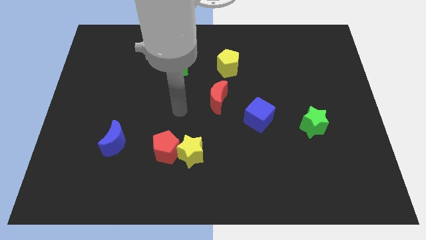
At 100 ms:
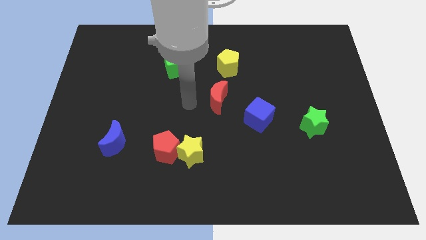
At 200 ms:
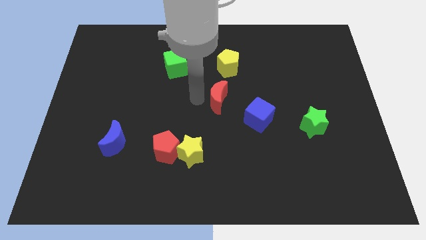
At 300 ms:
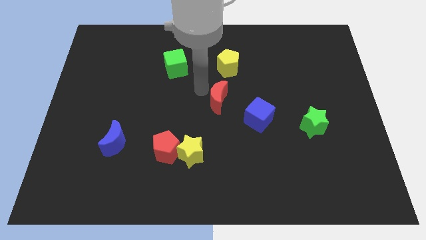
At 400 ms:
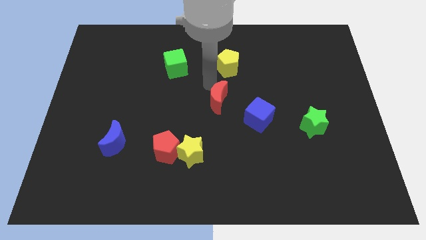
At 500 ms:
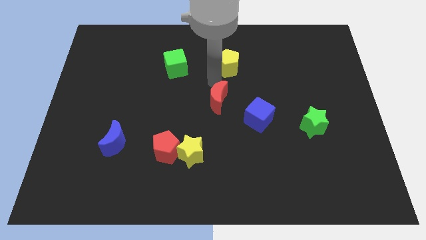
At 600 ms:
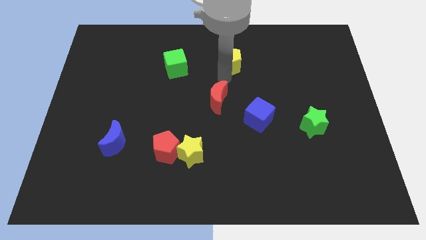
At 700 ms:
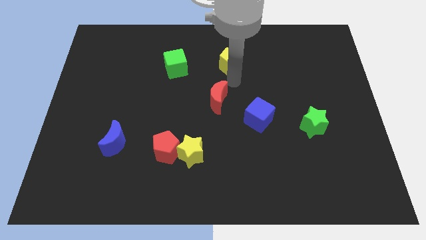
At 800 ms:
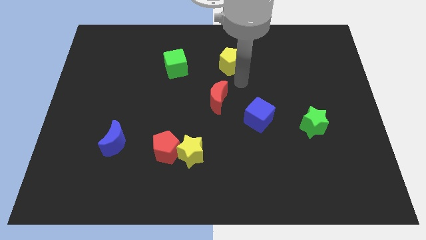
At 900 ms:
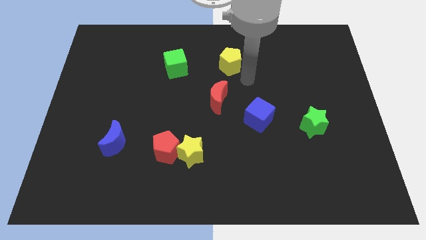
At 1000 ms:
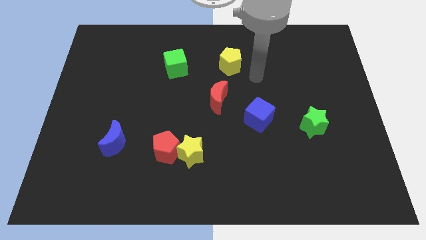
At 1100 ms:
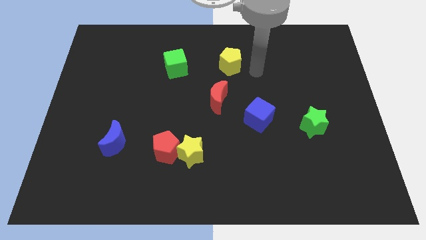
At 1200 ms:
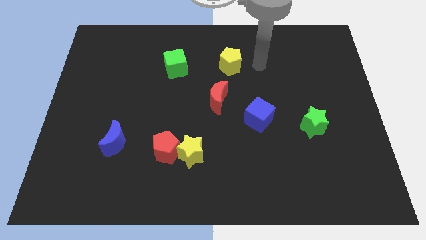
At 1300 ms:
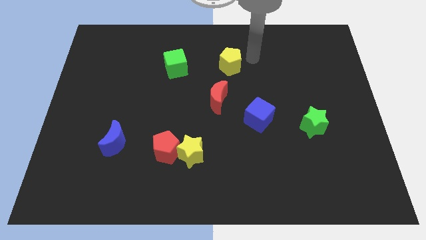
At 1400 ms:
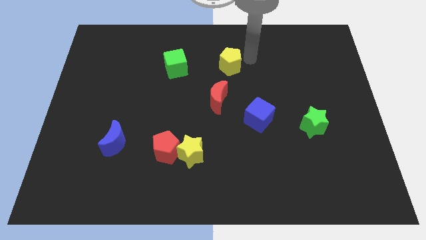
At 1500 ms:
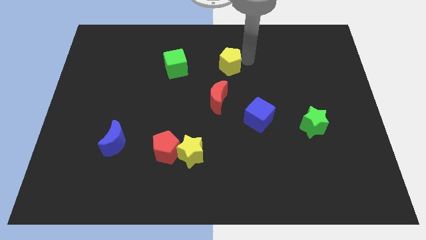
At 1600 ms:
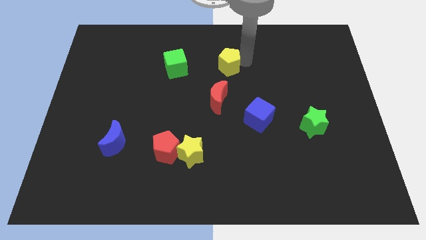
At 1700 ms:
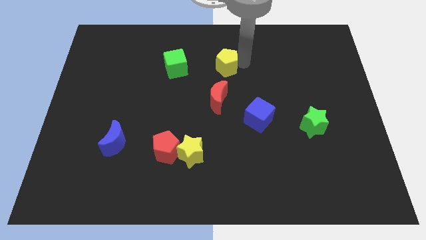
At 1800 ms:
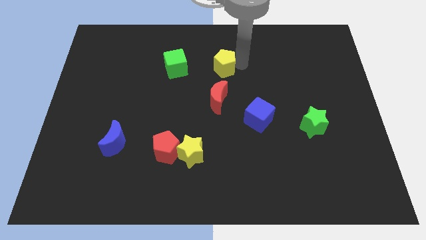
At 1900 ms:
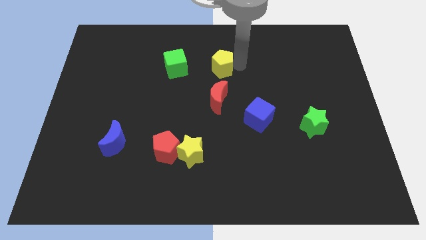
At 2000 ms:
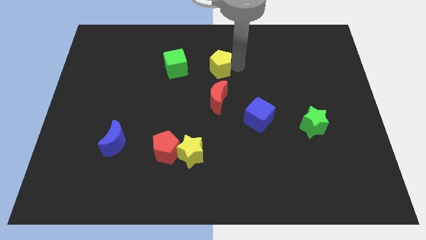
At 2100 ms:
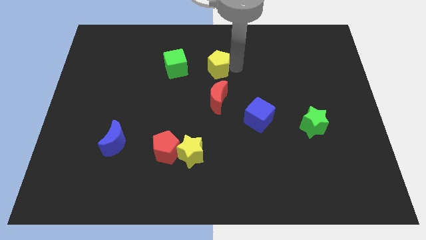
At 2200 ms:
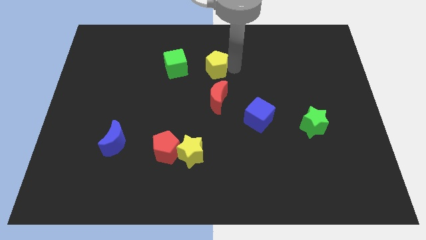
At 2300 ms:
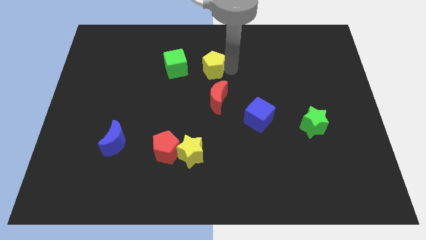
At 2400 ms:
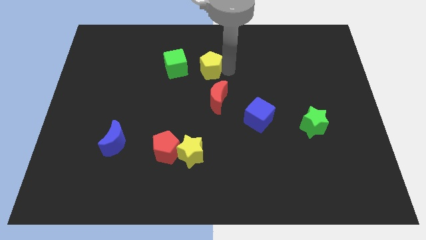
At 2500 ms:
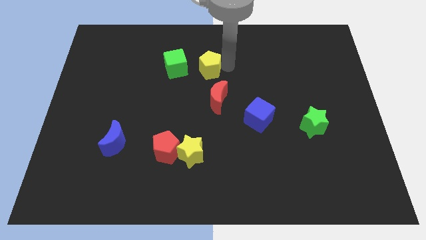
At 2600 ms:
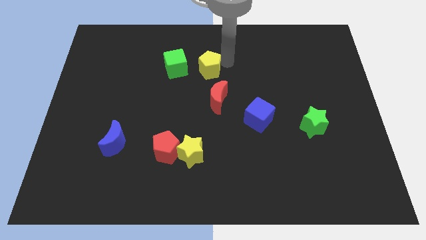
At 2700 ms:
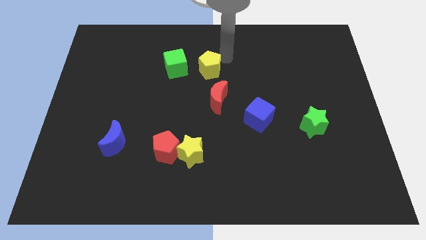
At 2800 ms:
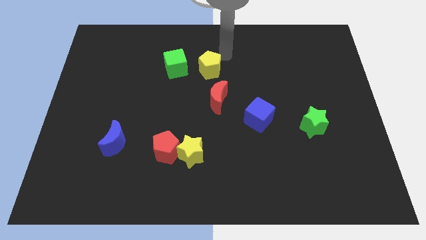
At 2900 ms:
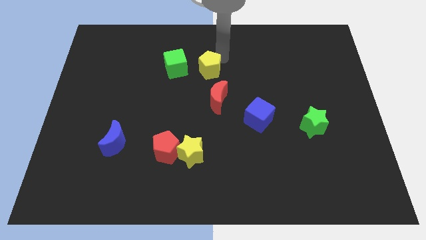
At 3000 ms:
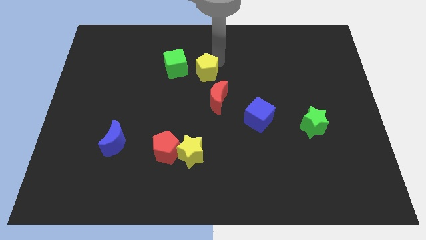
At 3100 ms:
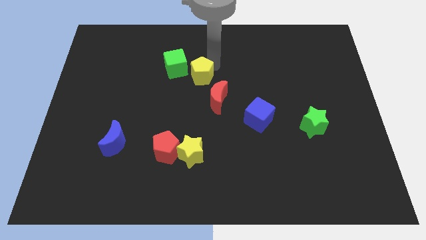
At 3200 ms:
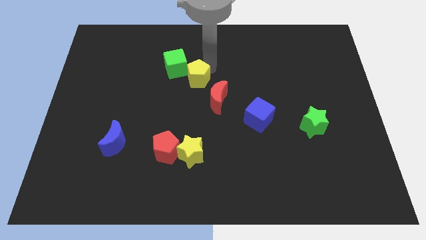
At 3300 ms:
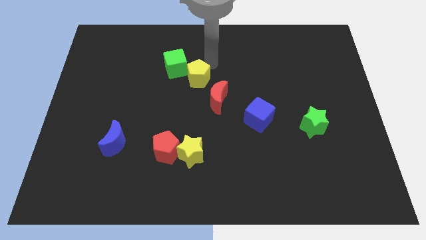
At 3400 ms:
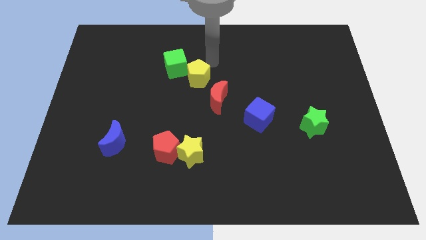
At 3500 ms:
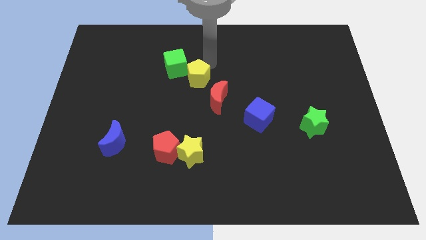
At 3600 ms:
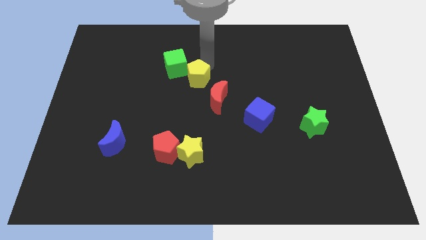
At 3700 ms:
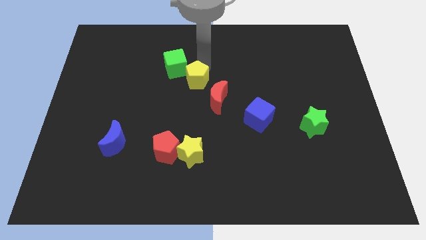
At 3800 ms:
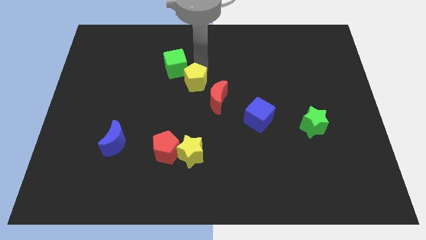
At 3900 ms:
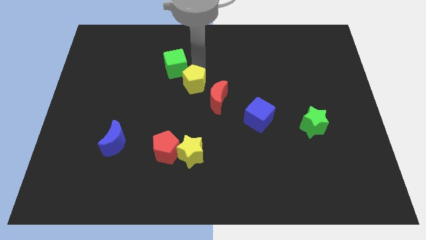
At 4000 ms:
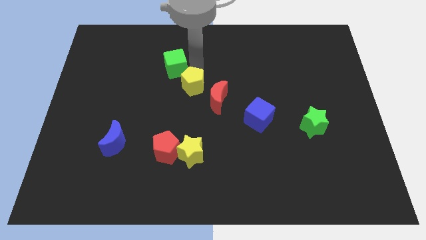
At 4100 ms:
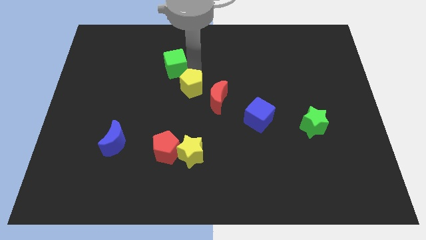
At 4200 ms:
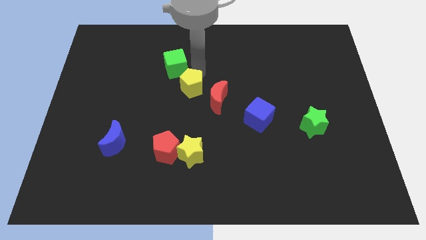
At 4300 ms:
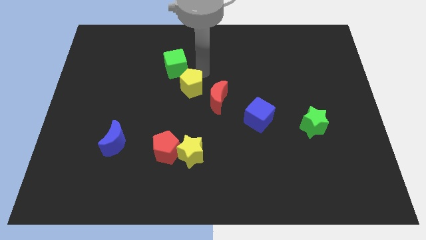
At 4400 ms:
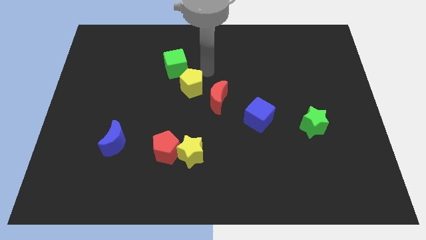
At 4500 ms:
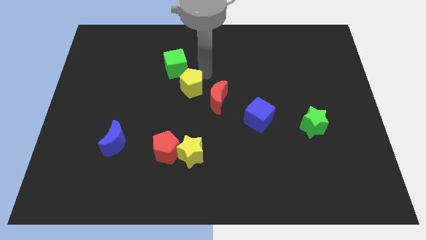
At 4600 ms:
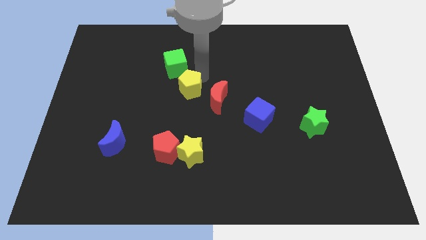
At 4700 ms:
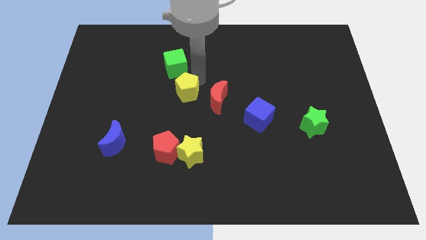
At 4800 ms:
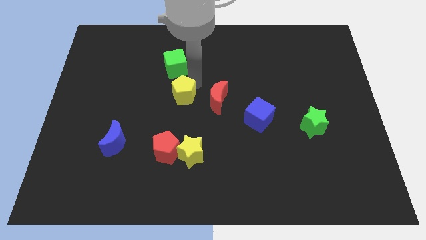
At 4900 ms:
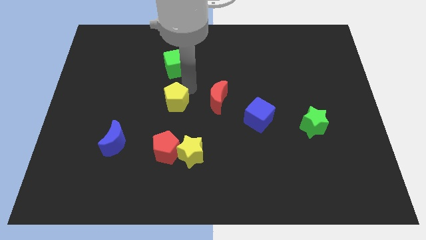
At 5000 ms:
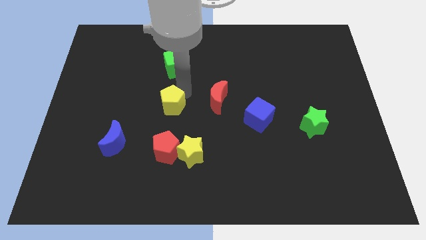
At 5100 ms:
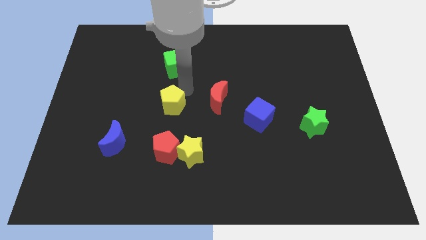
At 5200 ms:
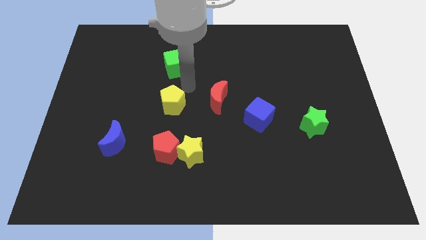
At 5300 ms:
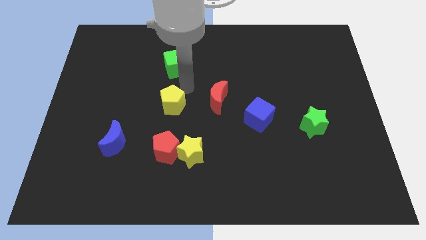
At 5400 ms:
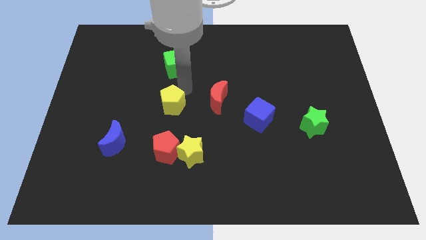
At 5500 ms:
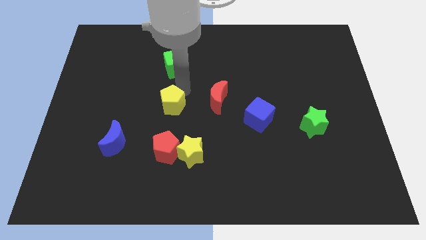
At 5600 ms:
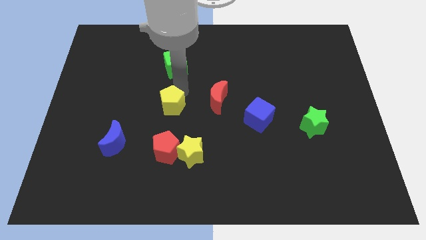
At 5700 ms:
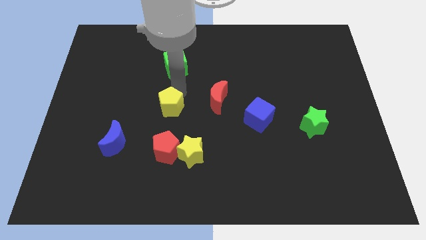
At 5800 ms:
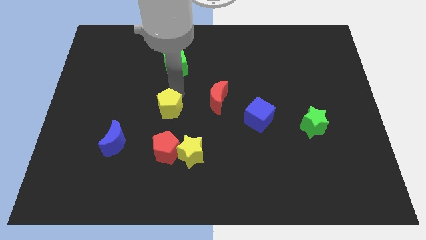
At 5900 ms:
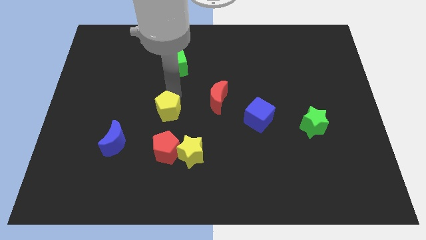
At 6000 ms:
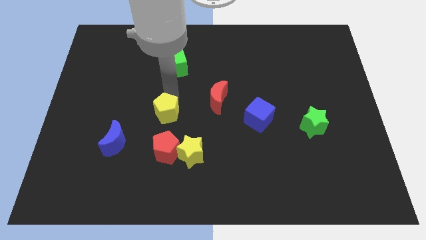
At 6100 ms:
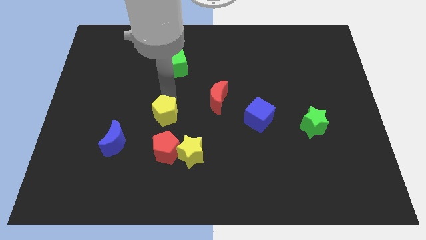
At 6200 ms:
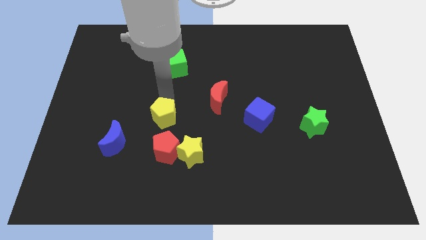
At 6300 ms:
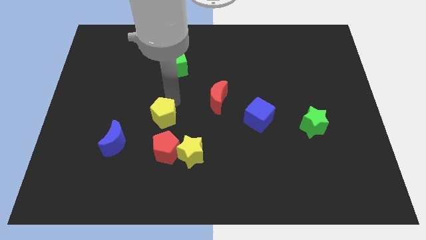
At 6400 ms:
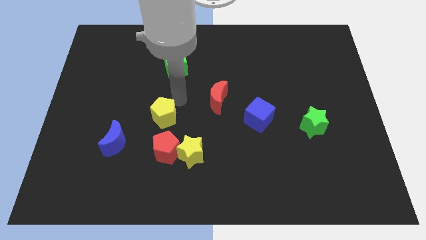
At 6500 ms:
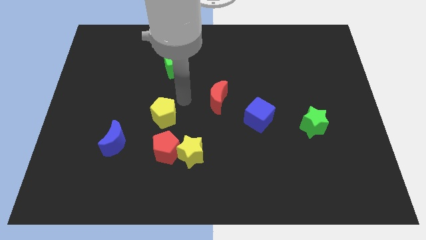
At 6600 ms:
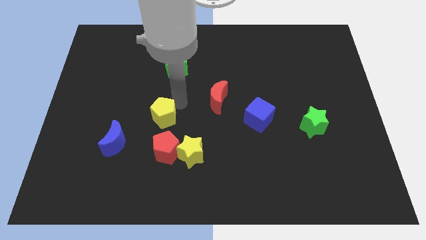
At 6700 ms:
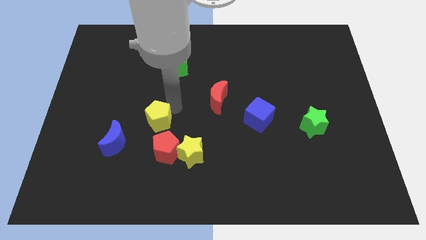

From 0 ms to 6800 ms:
slide the yellow pentagon to the top left of the red pentagon

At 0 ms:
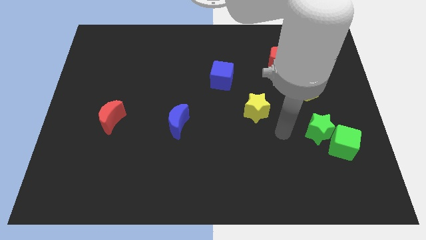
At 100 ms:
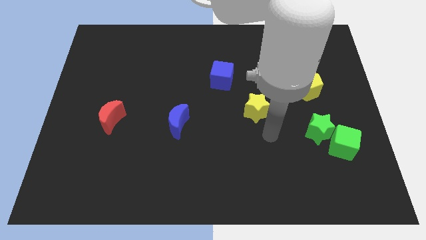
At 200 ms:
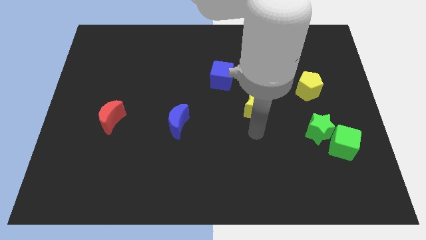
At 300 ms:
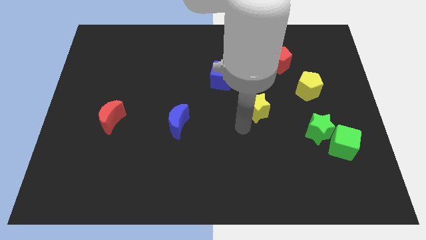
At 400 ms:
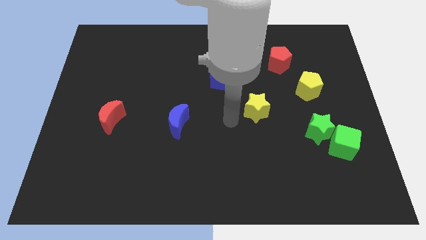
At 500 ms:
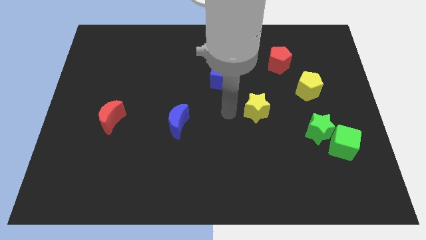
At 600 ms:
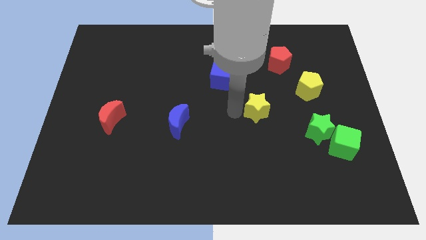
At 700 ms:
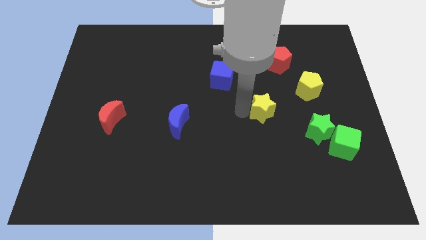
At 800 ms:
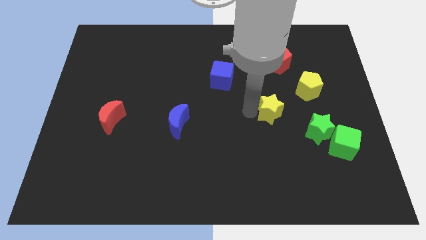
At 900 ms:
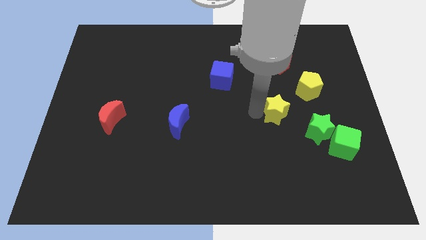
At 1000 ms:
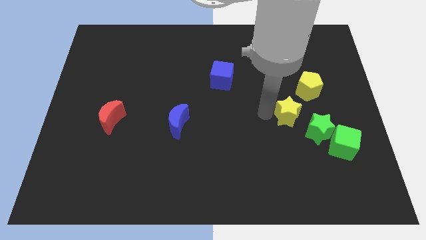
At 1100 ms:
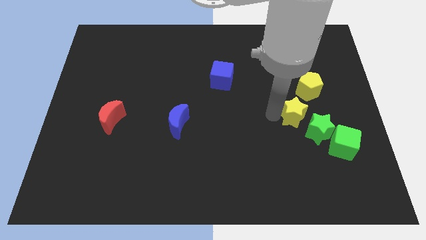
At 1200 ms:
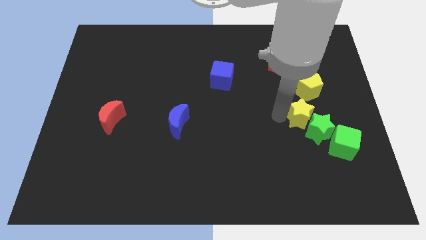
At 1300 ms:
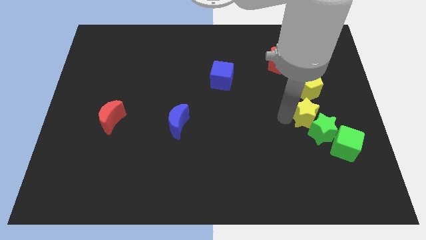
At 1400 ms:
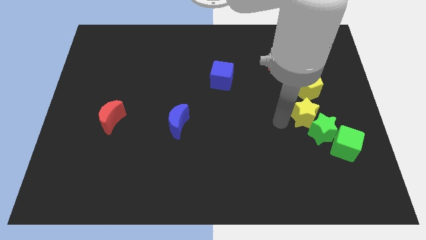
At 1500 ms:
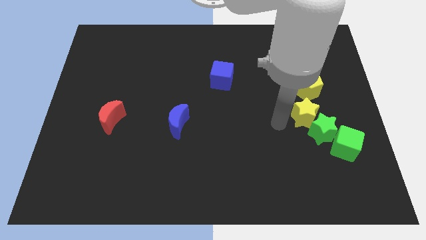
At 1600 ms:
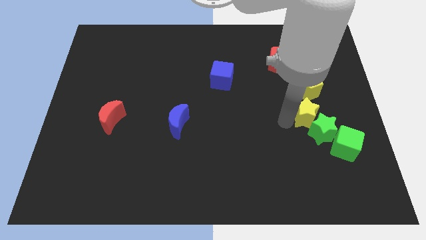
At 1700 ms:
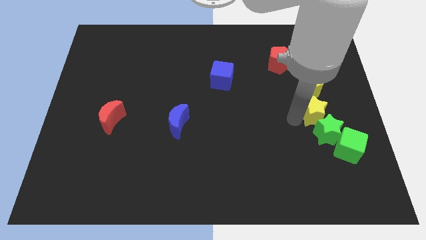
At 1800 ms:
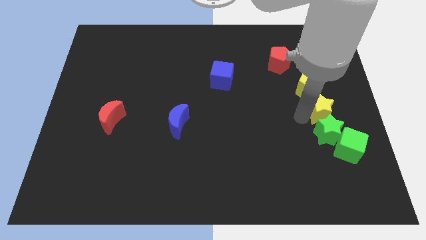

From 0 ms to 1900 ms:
put the yellow star to the top of the green cube
